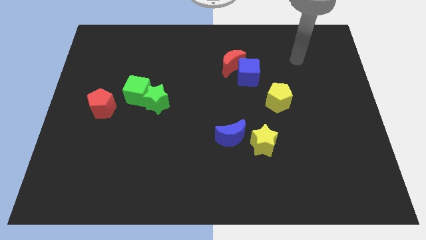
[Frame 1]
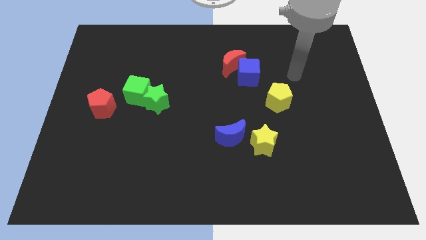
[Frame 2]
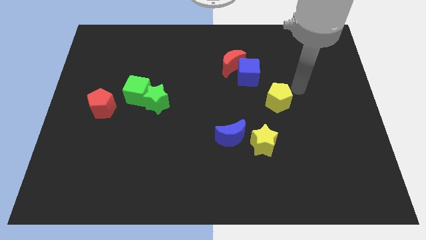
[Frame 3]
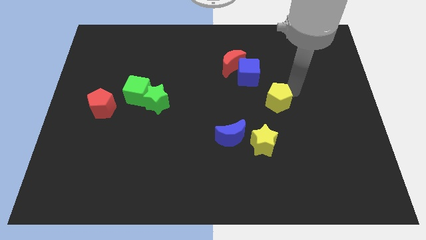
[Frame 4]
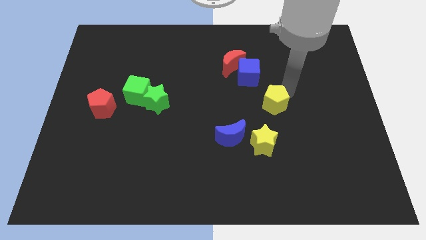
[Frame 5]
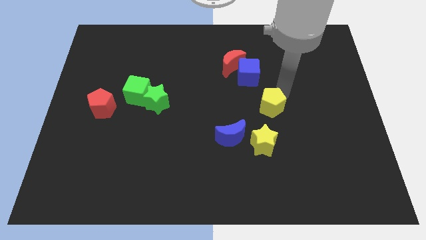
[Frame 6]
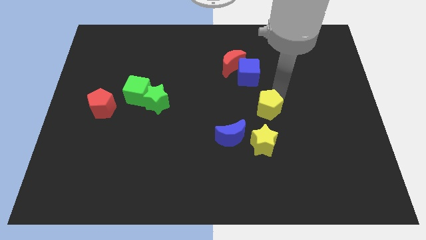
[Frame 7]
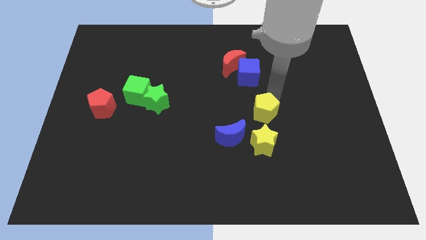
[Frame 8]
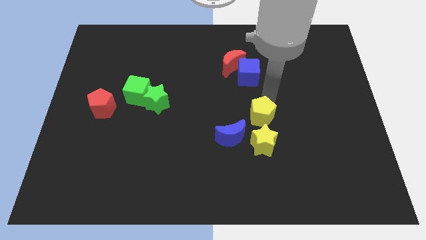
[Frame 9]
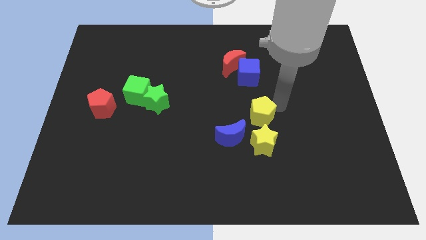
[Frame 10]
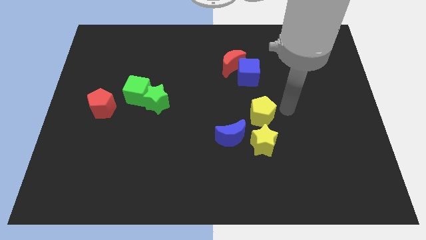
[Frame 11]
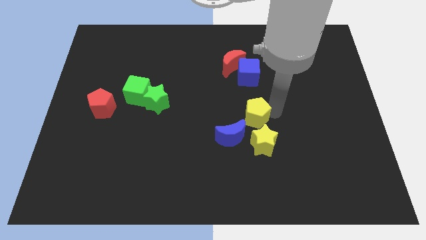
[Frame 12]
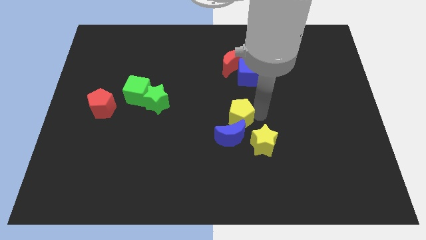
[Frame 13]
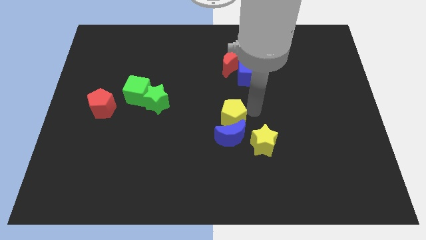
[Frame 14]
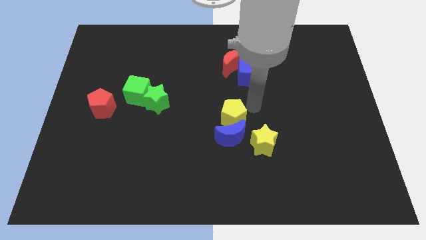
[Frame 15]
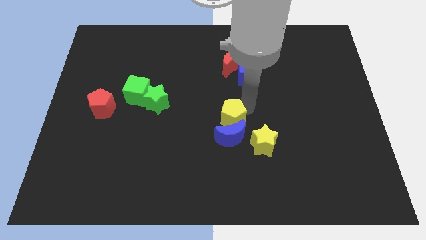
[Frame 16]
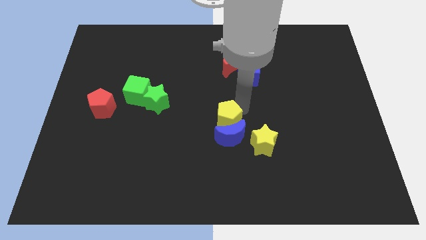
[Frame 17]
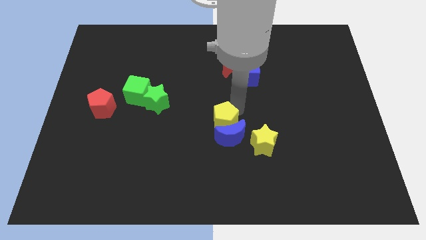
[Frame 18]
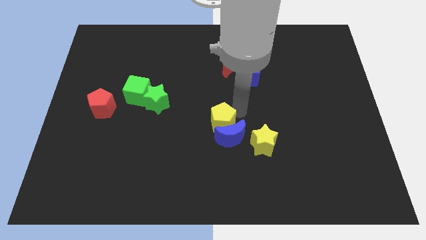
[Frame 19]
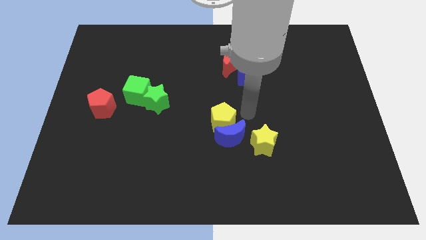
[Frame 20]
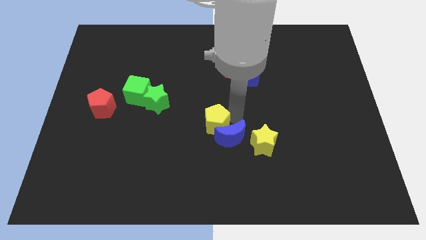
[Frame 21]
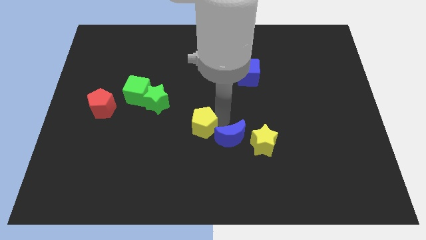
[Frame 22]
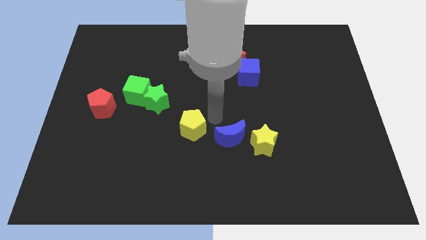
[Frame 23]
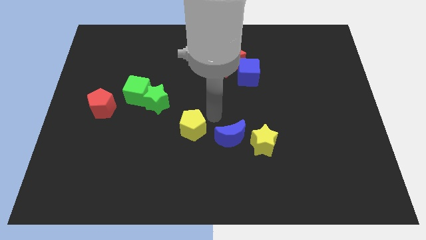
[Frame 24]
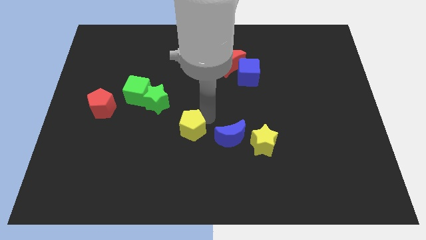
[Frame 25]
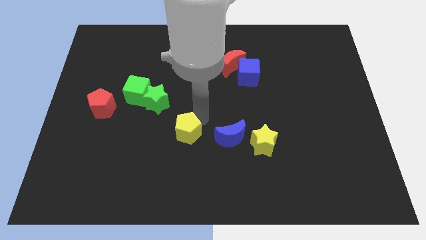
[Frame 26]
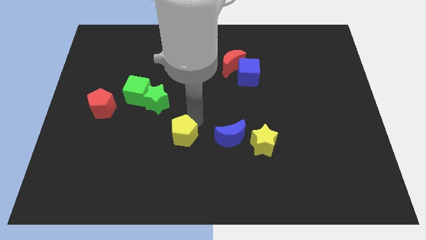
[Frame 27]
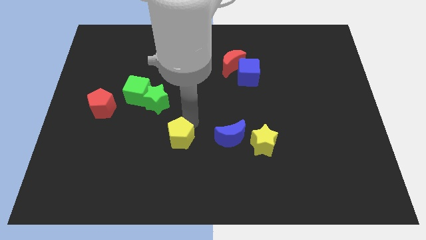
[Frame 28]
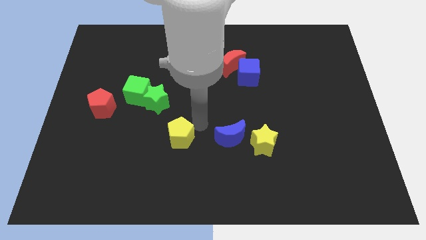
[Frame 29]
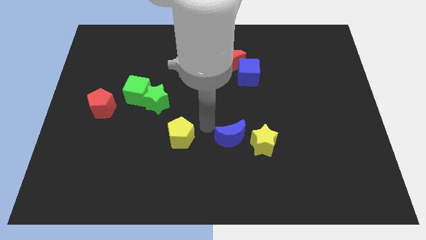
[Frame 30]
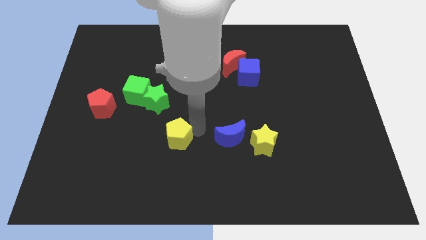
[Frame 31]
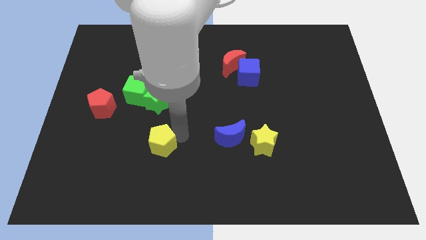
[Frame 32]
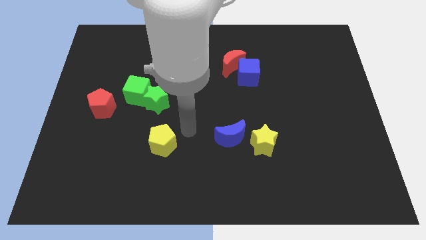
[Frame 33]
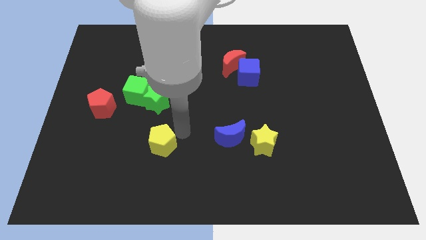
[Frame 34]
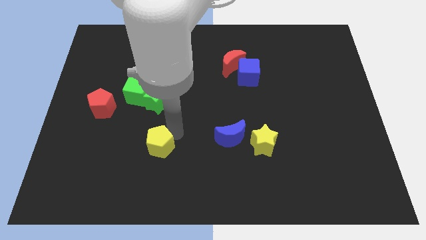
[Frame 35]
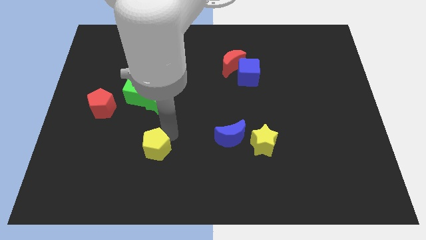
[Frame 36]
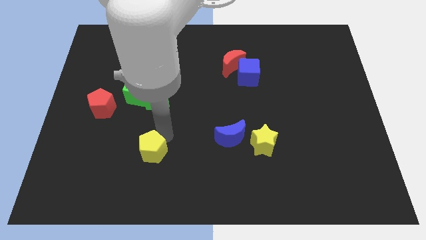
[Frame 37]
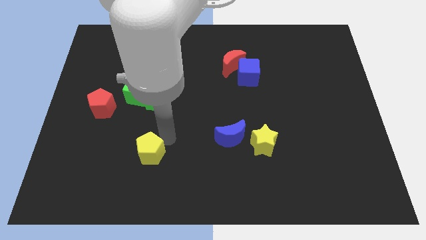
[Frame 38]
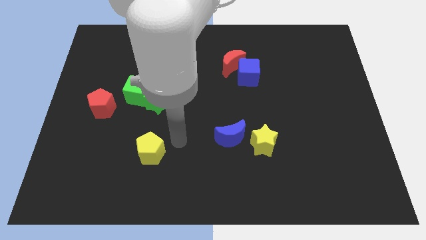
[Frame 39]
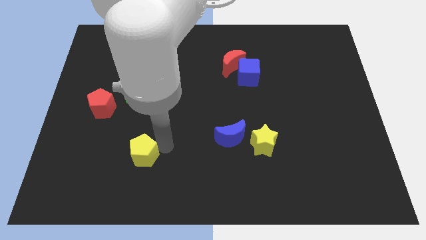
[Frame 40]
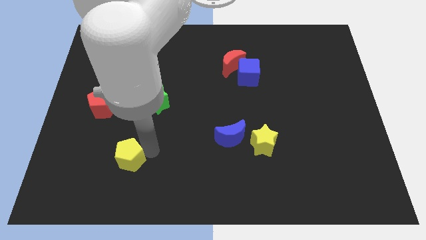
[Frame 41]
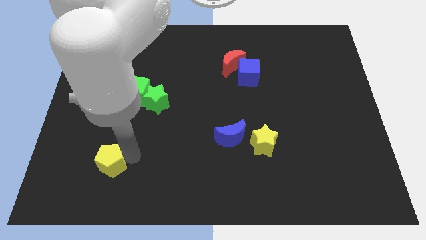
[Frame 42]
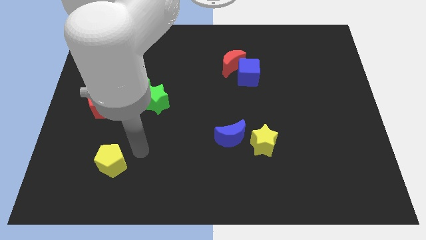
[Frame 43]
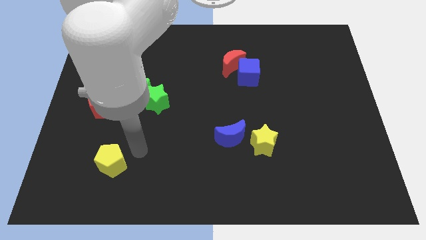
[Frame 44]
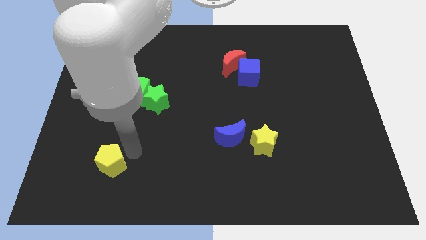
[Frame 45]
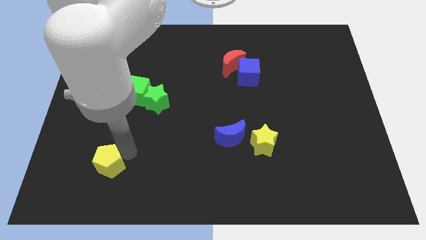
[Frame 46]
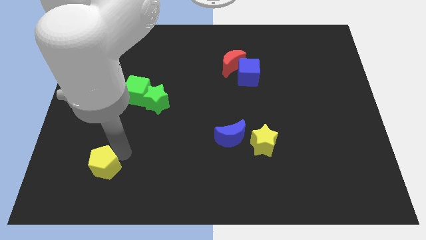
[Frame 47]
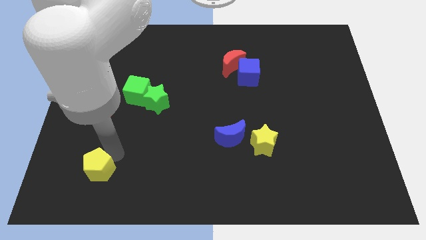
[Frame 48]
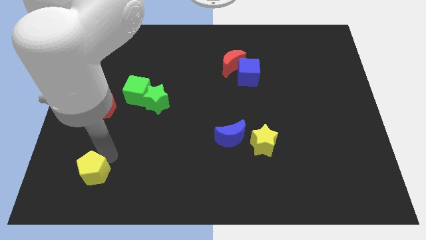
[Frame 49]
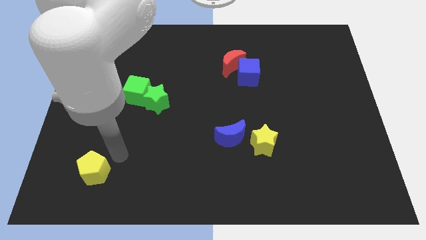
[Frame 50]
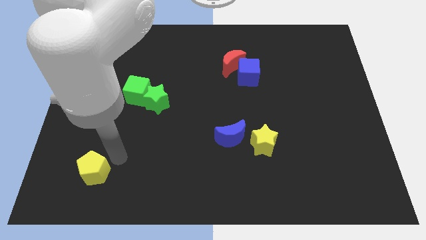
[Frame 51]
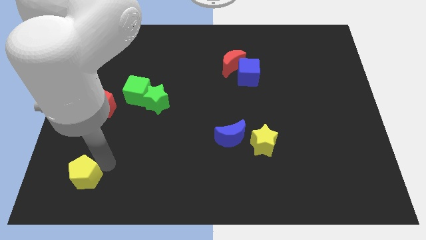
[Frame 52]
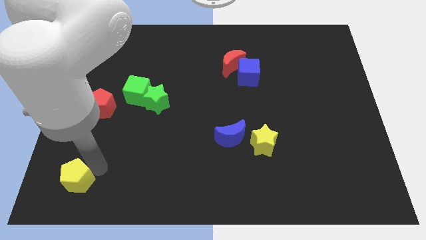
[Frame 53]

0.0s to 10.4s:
move the yellow pentagon to the bottom left of the board
